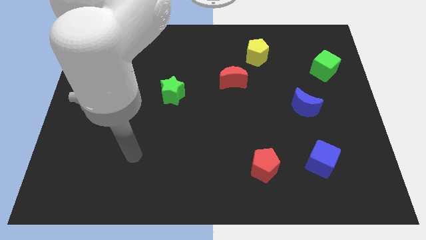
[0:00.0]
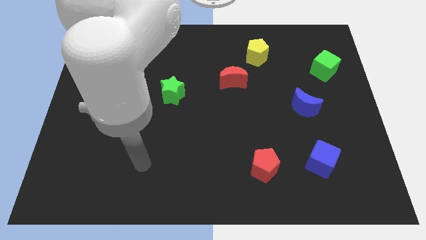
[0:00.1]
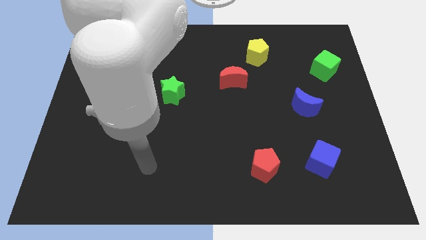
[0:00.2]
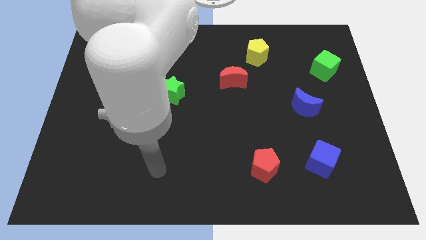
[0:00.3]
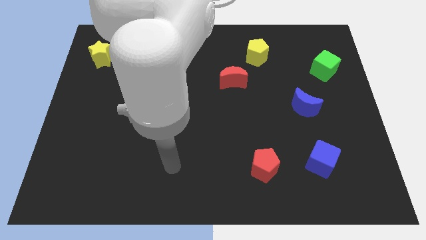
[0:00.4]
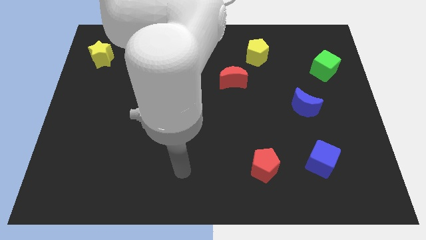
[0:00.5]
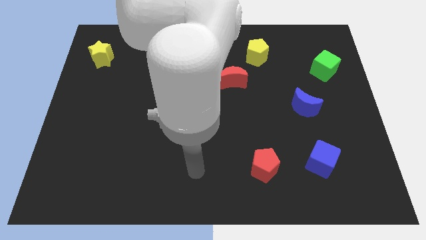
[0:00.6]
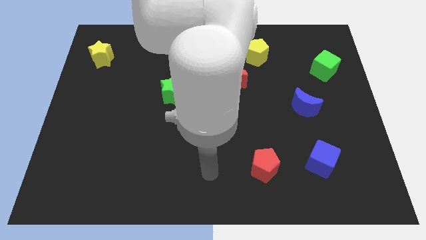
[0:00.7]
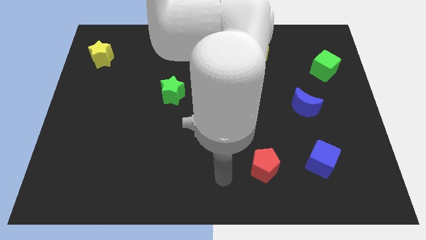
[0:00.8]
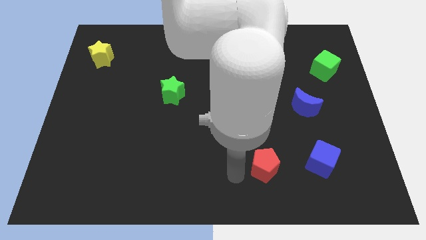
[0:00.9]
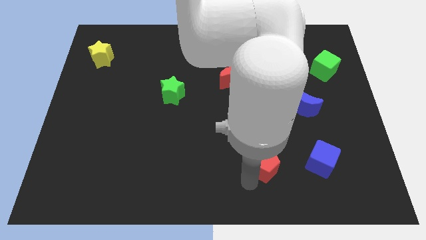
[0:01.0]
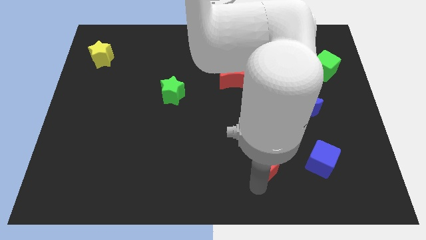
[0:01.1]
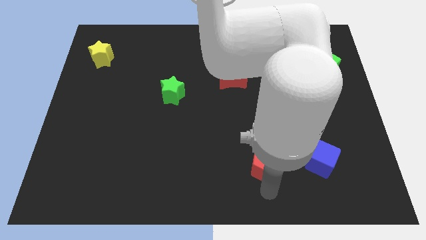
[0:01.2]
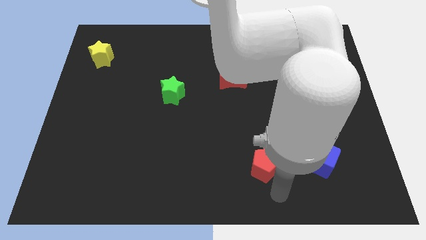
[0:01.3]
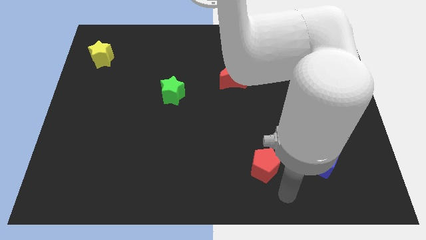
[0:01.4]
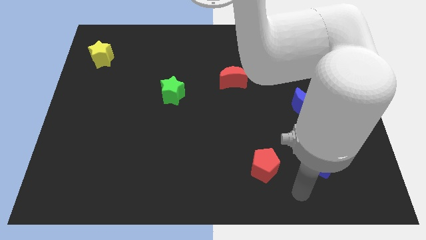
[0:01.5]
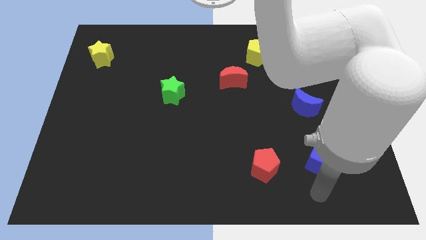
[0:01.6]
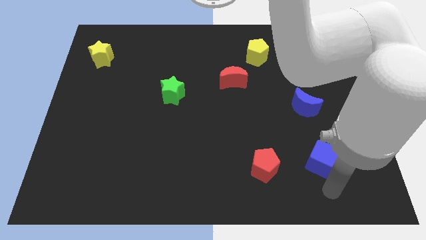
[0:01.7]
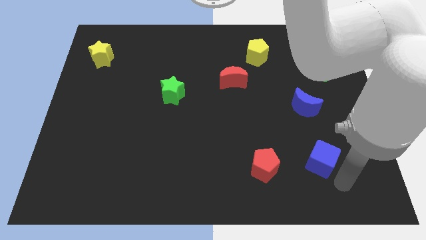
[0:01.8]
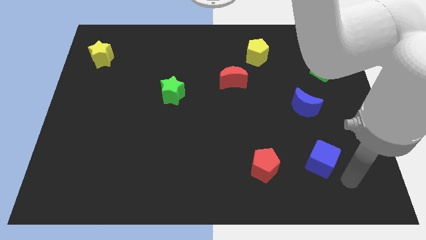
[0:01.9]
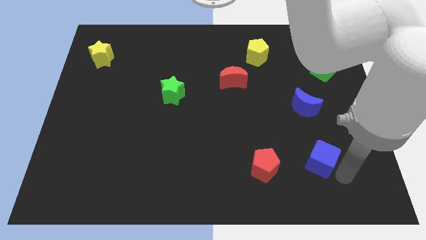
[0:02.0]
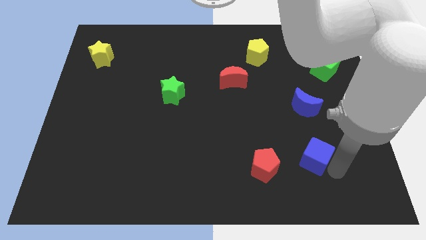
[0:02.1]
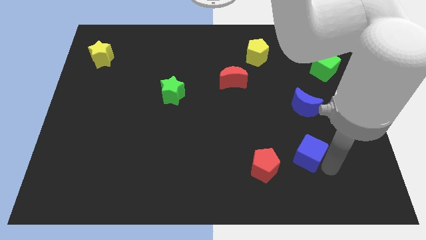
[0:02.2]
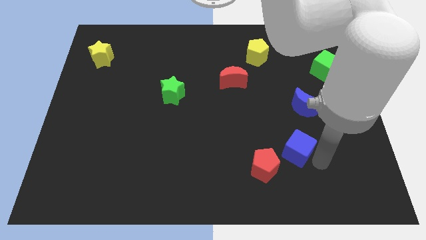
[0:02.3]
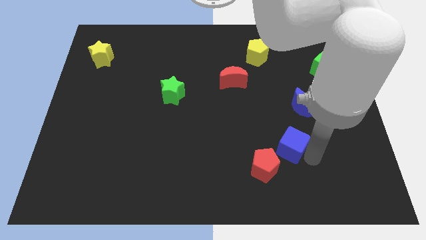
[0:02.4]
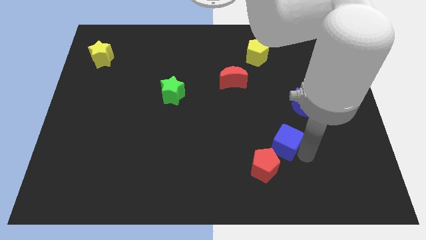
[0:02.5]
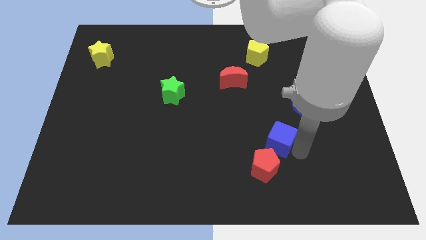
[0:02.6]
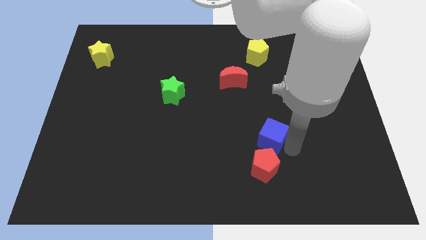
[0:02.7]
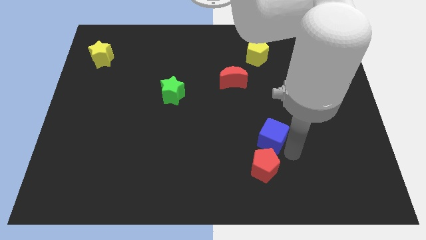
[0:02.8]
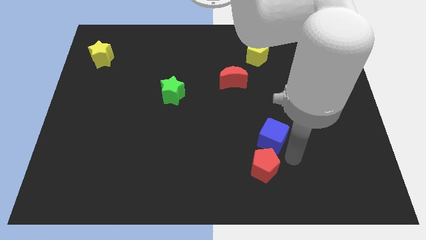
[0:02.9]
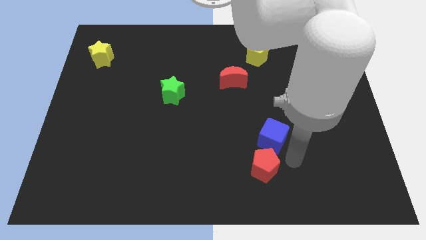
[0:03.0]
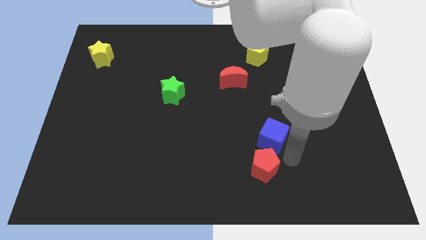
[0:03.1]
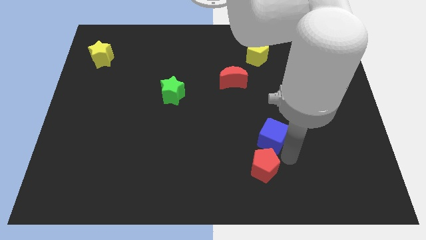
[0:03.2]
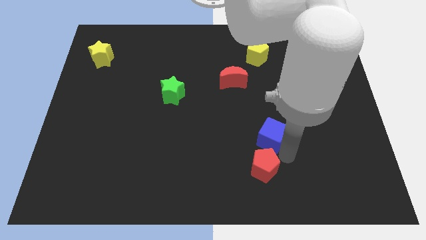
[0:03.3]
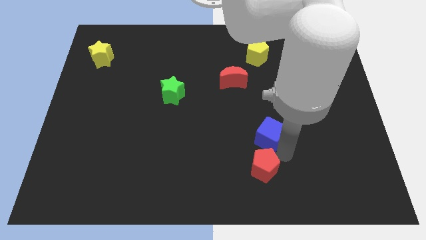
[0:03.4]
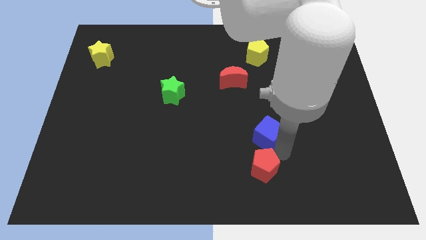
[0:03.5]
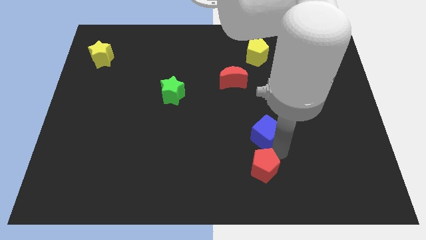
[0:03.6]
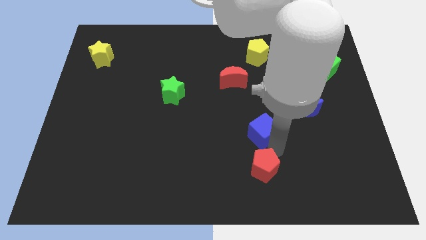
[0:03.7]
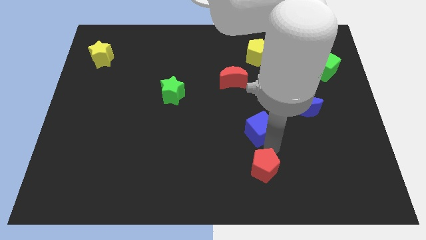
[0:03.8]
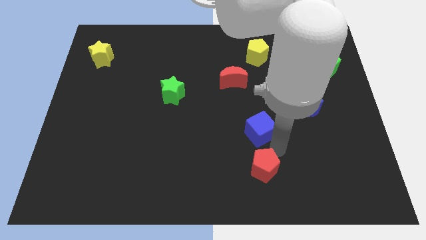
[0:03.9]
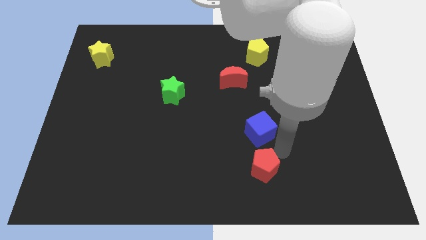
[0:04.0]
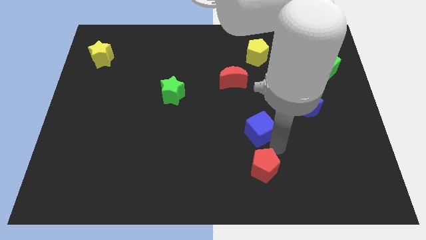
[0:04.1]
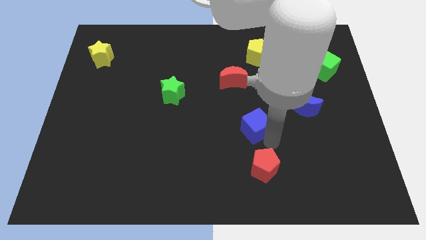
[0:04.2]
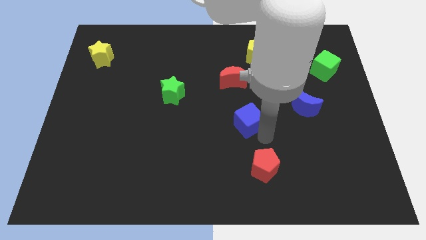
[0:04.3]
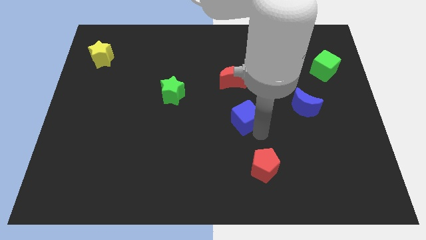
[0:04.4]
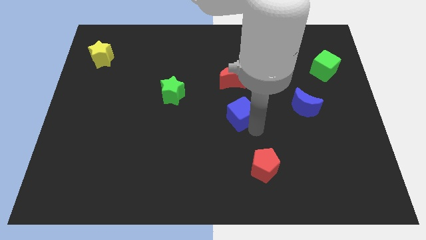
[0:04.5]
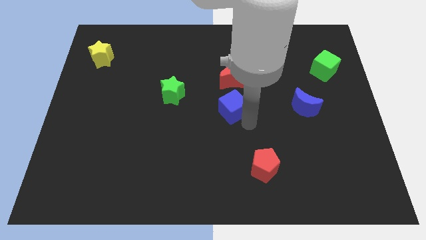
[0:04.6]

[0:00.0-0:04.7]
push the blue cube diagonally up and left

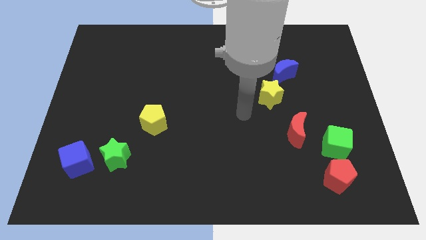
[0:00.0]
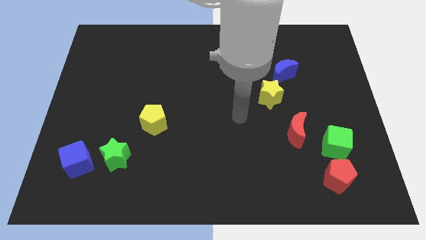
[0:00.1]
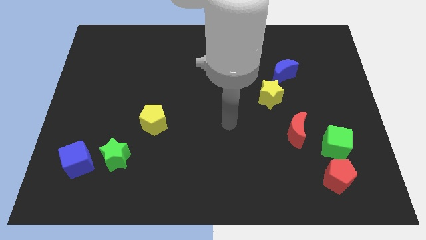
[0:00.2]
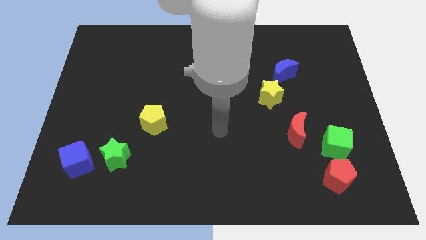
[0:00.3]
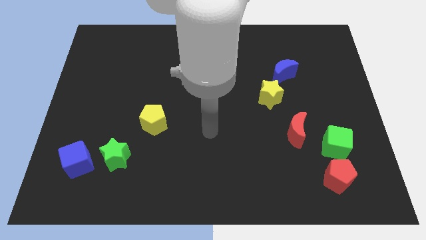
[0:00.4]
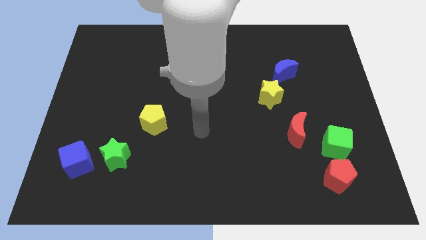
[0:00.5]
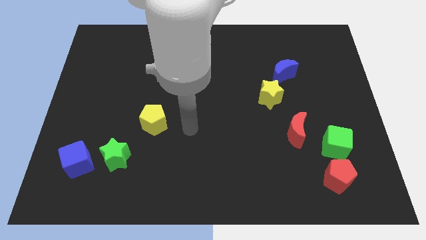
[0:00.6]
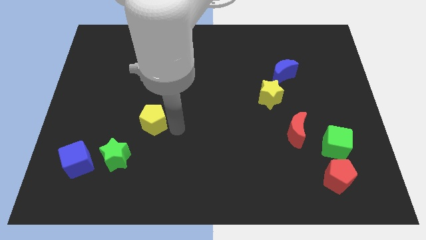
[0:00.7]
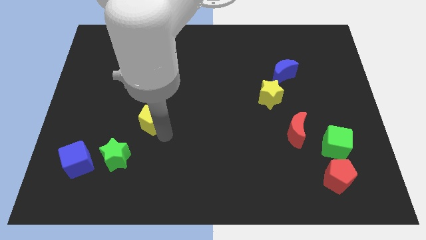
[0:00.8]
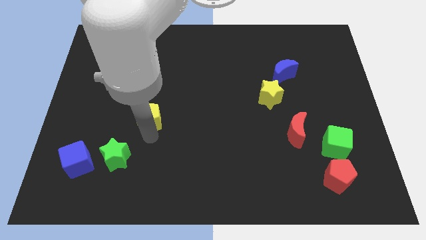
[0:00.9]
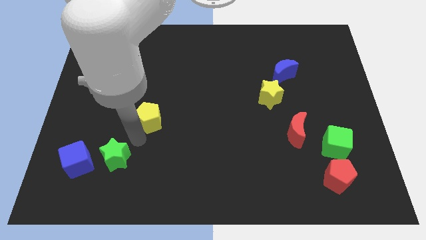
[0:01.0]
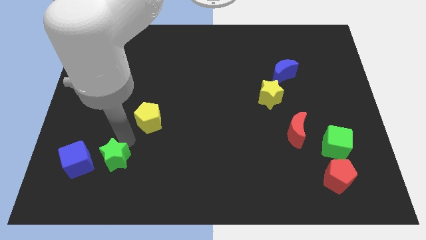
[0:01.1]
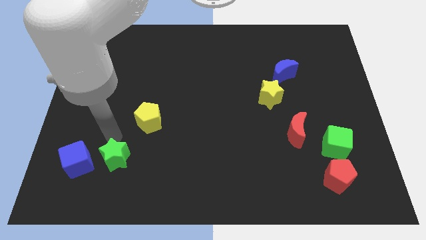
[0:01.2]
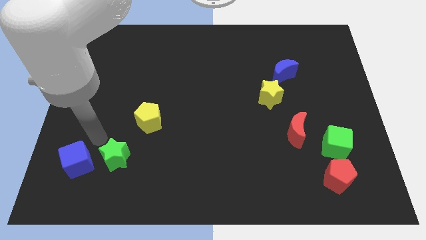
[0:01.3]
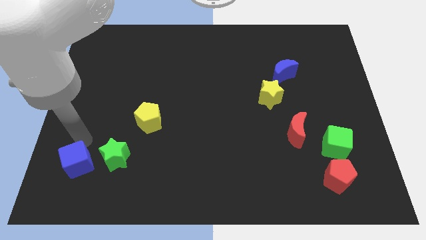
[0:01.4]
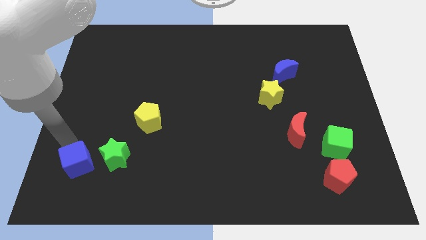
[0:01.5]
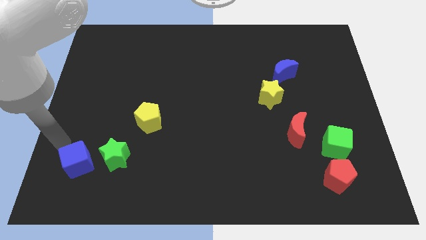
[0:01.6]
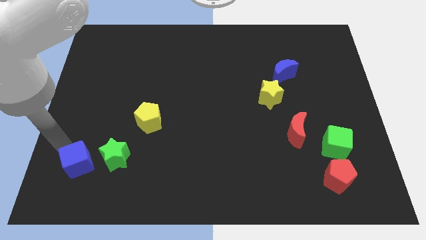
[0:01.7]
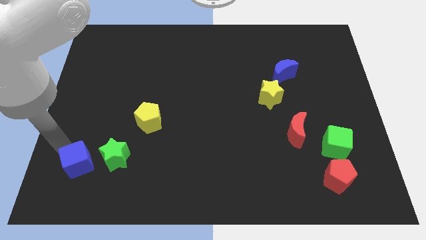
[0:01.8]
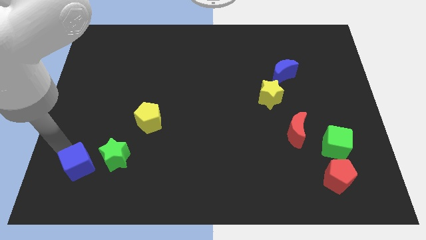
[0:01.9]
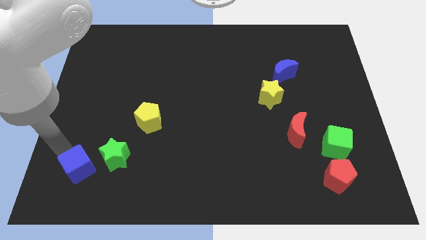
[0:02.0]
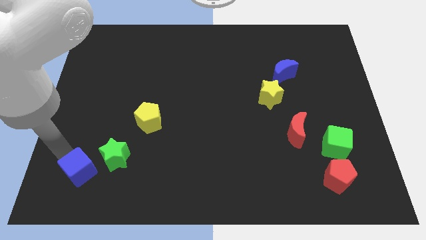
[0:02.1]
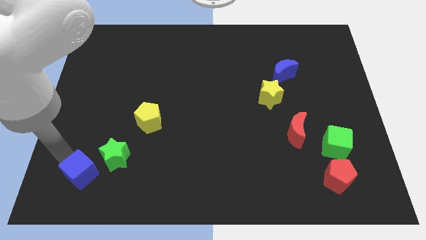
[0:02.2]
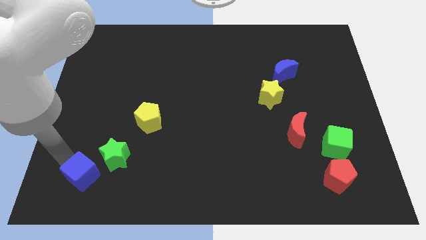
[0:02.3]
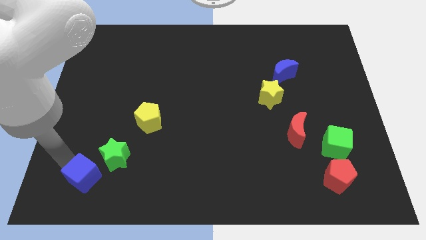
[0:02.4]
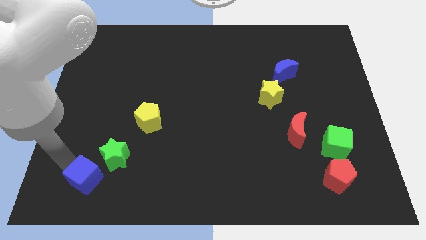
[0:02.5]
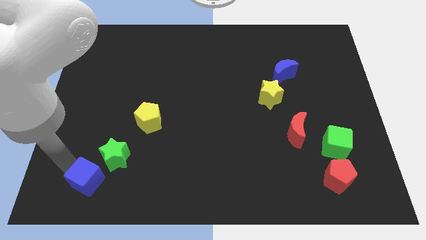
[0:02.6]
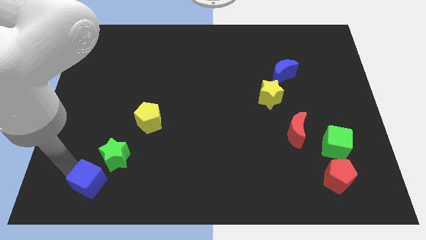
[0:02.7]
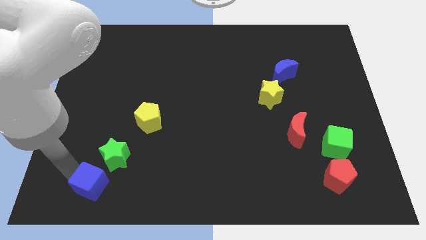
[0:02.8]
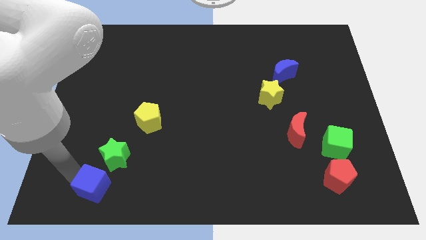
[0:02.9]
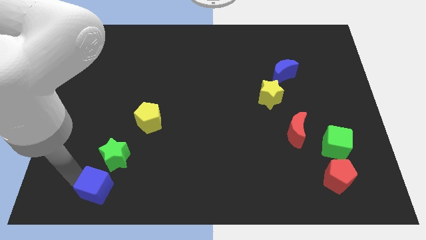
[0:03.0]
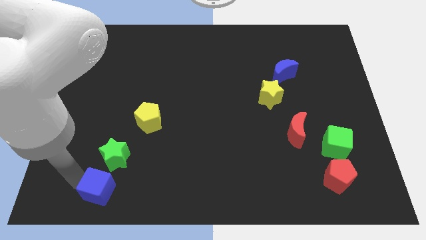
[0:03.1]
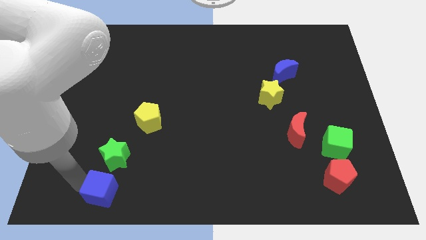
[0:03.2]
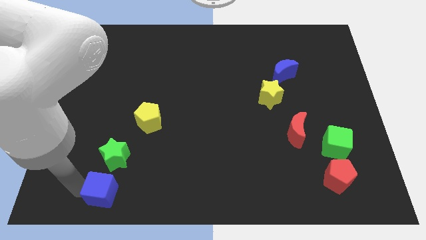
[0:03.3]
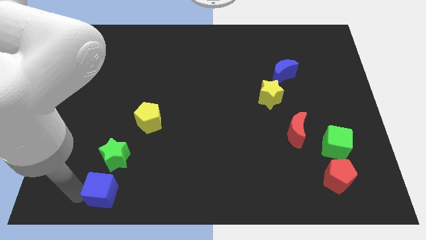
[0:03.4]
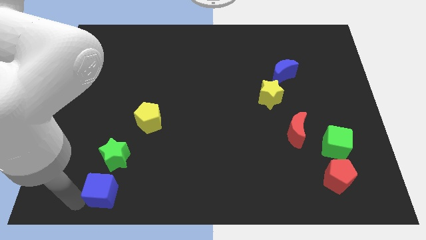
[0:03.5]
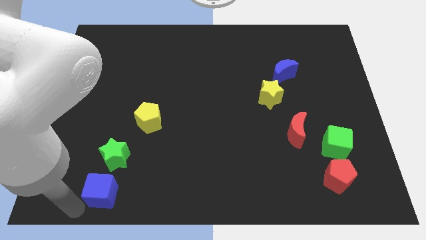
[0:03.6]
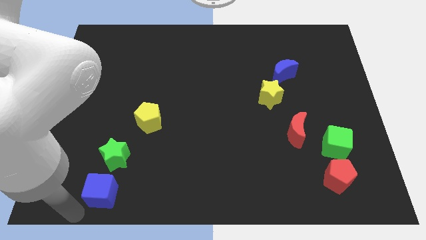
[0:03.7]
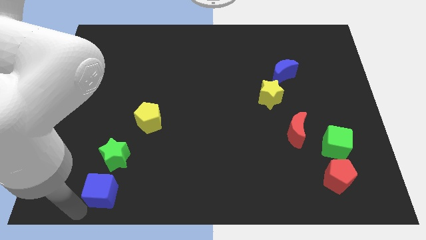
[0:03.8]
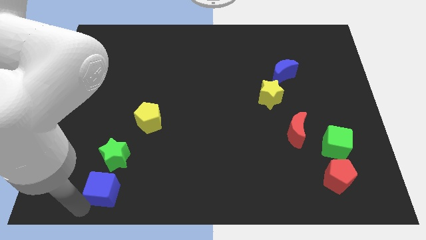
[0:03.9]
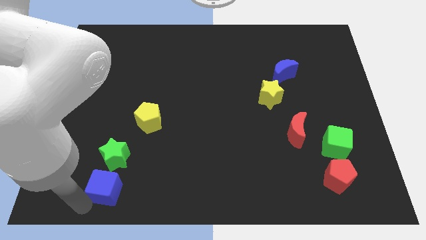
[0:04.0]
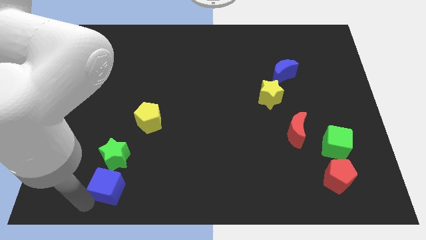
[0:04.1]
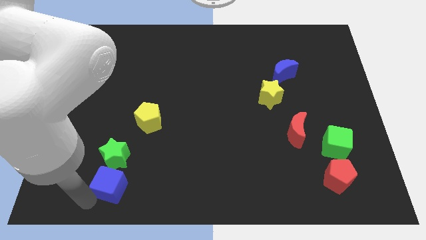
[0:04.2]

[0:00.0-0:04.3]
push the blue cube right a little bit
